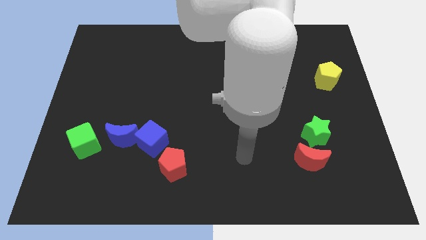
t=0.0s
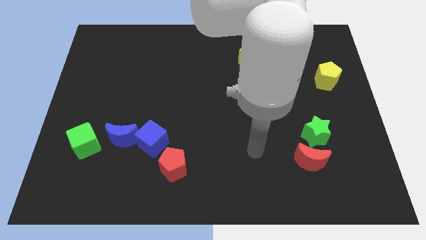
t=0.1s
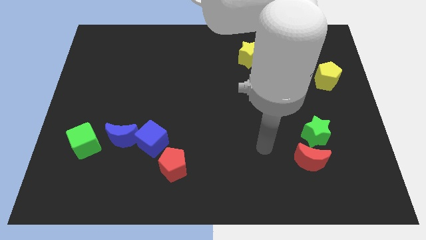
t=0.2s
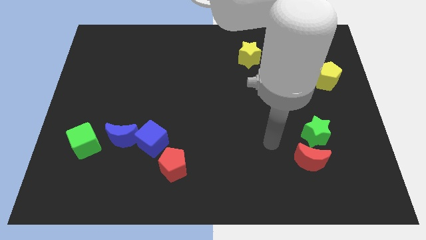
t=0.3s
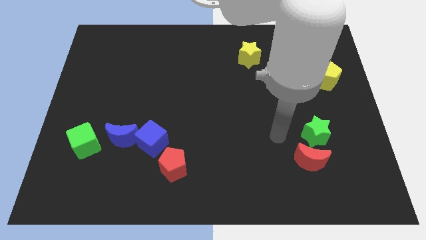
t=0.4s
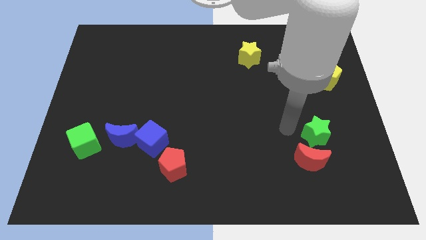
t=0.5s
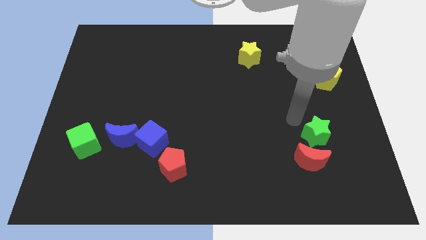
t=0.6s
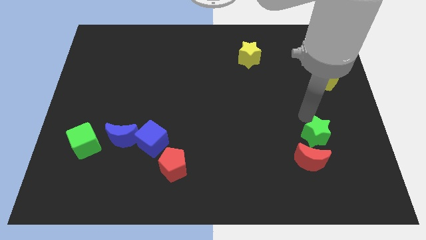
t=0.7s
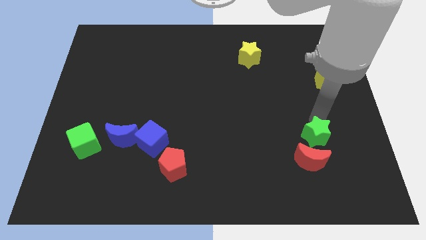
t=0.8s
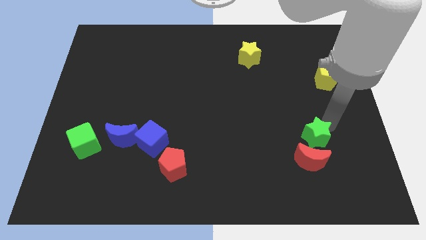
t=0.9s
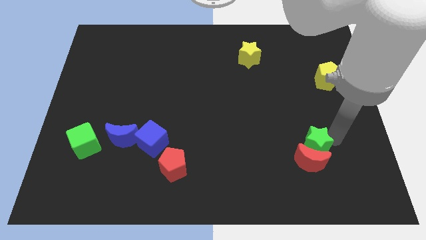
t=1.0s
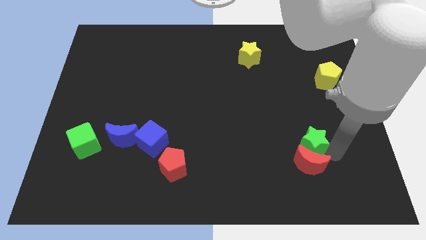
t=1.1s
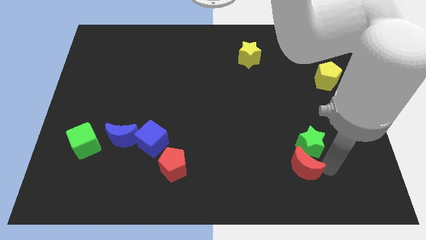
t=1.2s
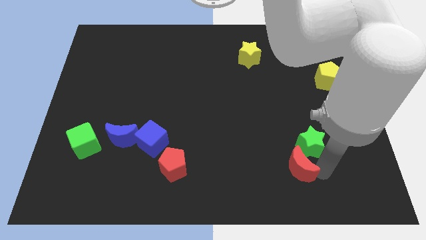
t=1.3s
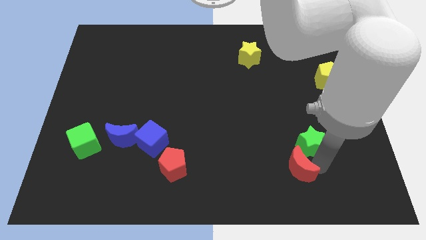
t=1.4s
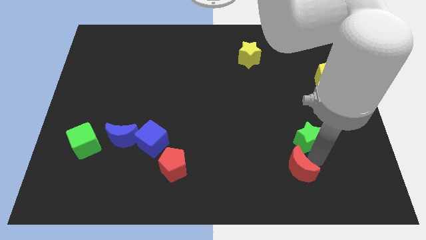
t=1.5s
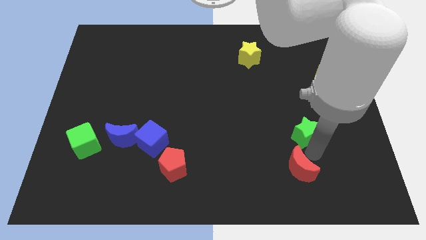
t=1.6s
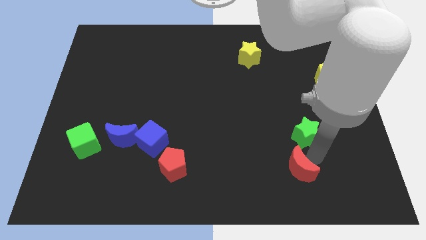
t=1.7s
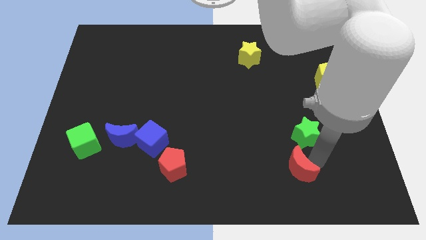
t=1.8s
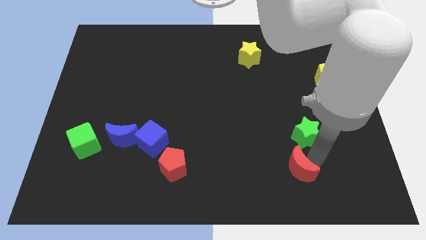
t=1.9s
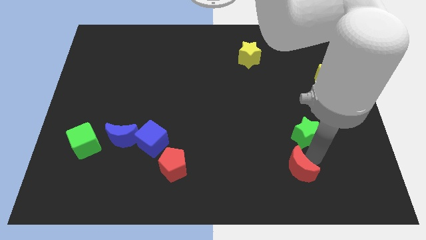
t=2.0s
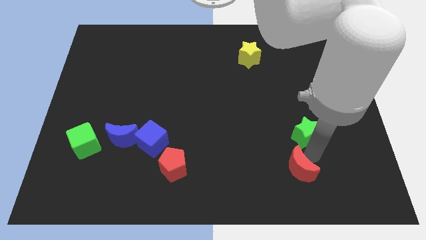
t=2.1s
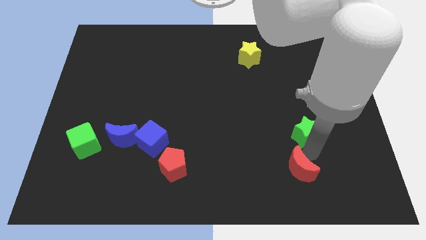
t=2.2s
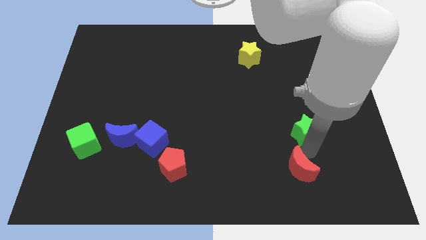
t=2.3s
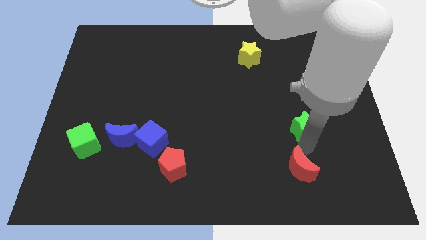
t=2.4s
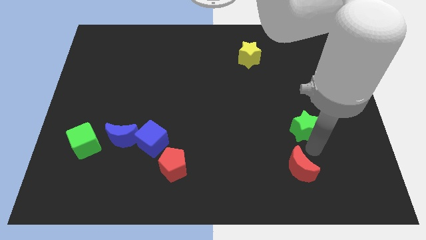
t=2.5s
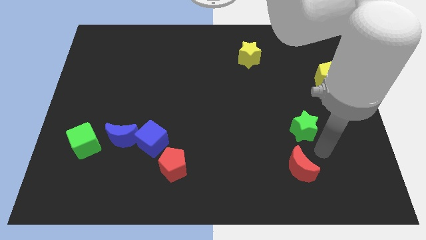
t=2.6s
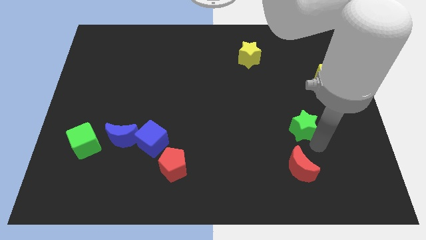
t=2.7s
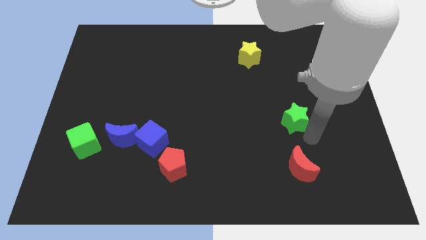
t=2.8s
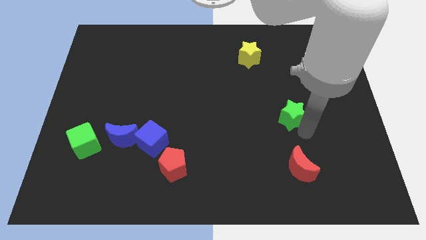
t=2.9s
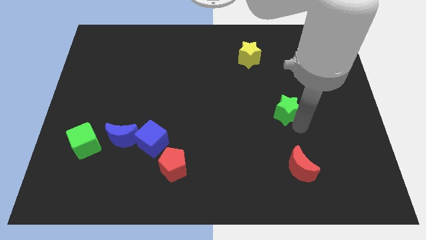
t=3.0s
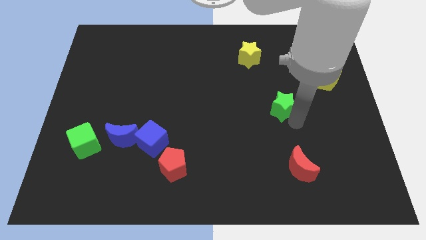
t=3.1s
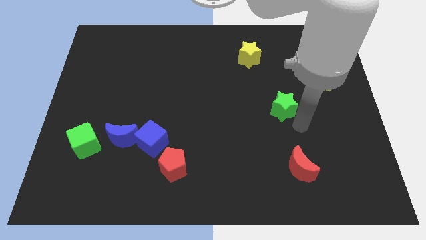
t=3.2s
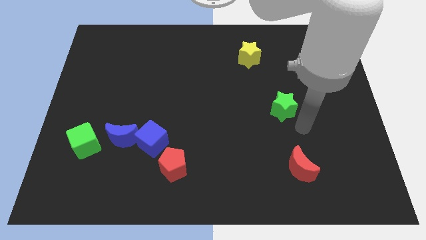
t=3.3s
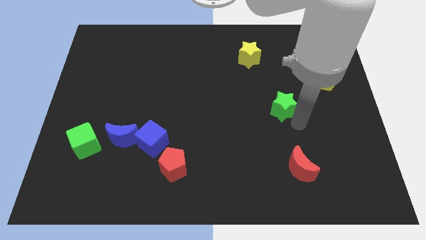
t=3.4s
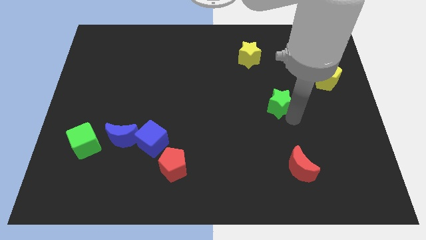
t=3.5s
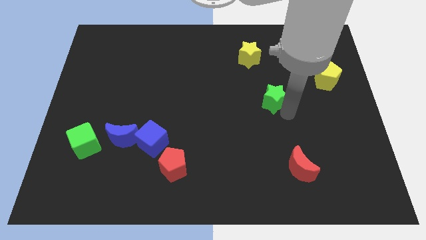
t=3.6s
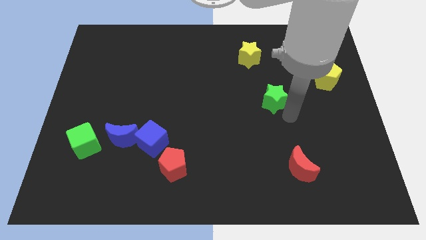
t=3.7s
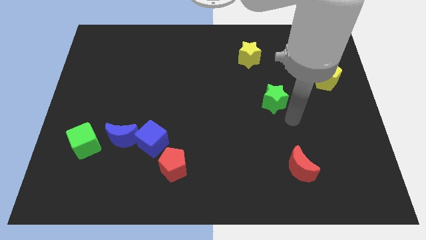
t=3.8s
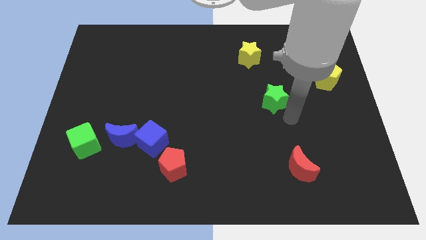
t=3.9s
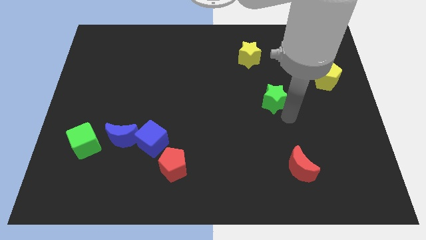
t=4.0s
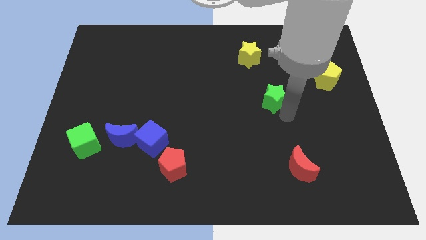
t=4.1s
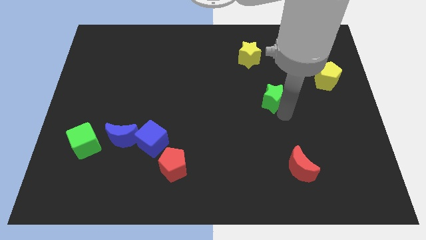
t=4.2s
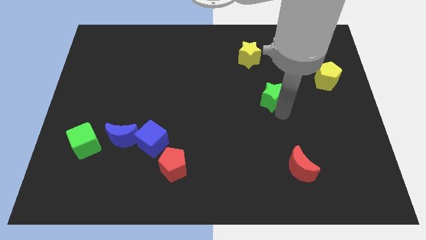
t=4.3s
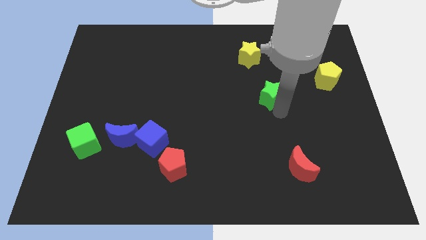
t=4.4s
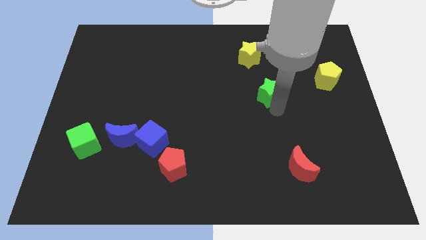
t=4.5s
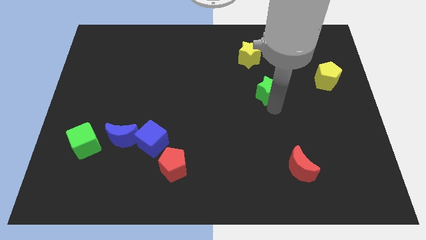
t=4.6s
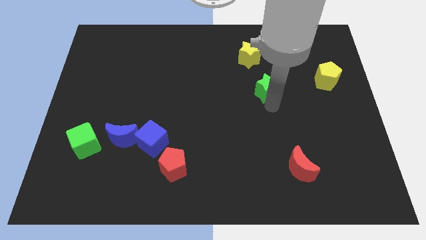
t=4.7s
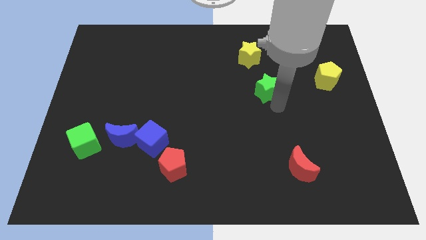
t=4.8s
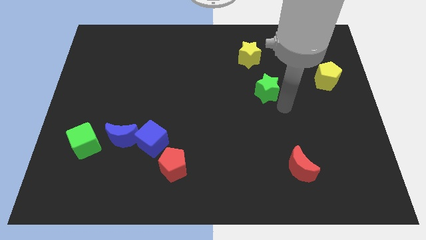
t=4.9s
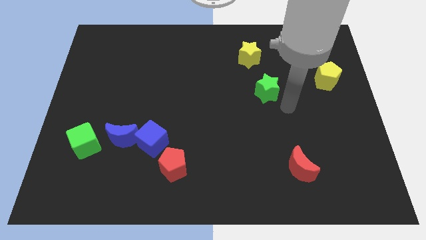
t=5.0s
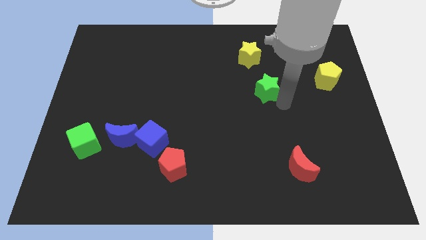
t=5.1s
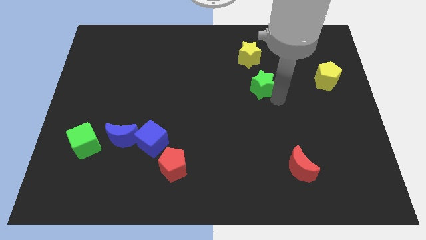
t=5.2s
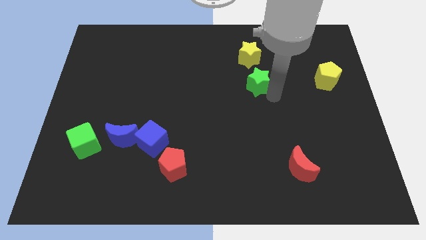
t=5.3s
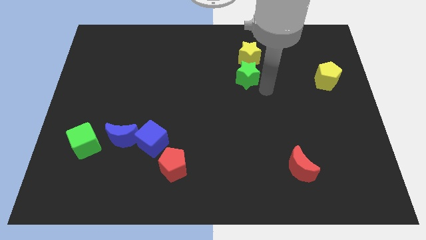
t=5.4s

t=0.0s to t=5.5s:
slide the green star up and to the left diagonally

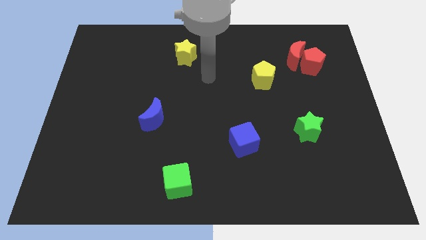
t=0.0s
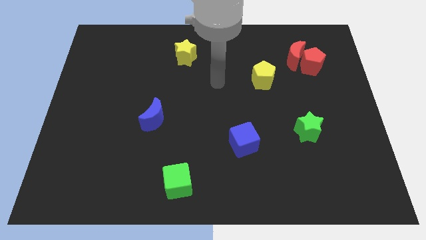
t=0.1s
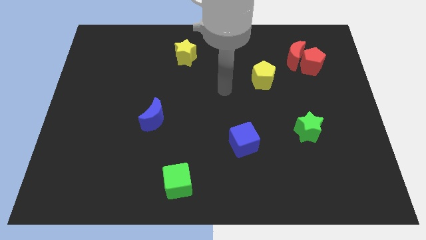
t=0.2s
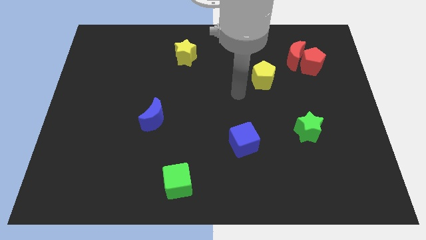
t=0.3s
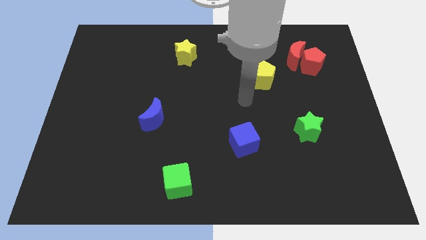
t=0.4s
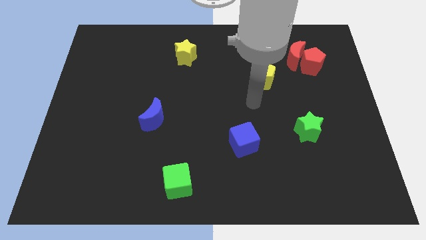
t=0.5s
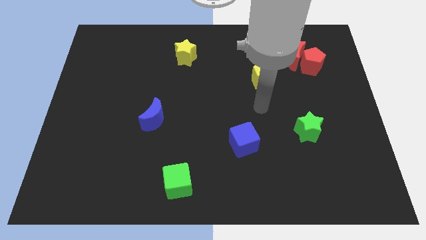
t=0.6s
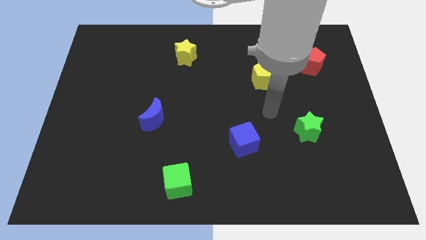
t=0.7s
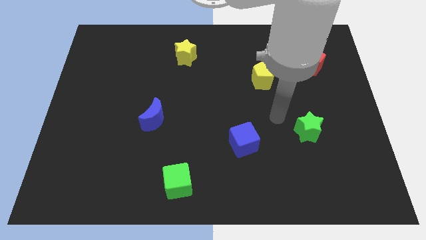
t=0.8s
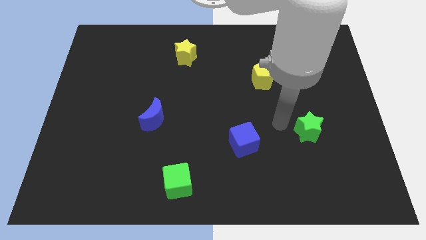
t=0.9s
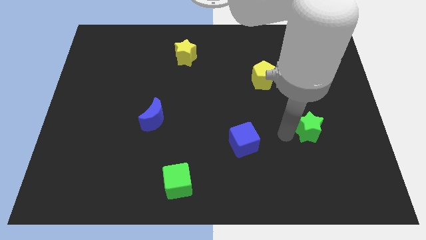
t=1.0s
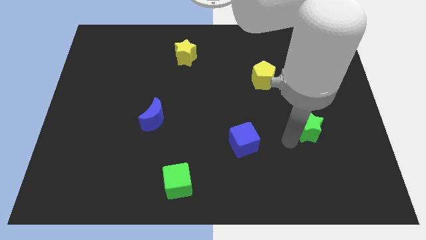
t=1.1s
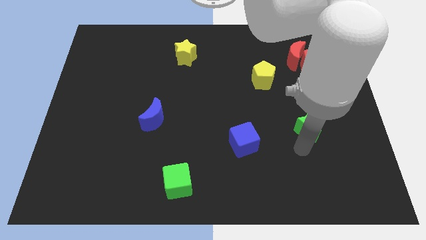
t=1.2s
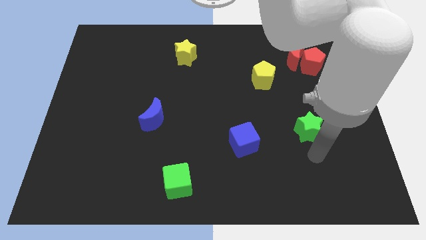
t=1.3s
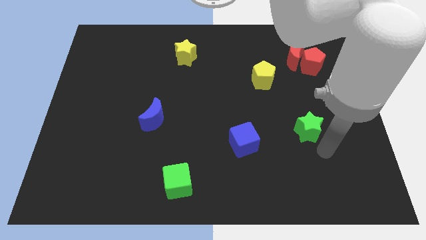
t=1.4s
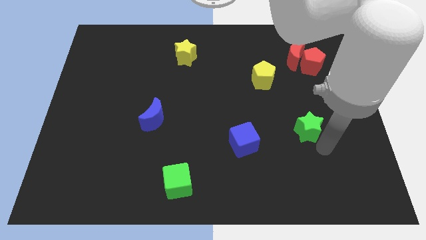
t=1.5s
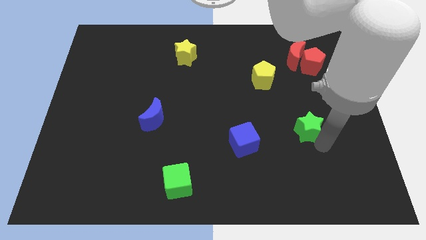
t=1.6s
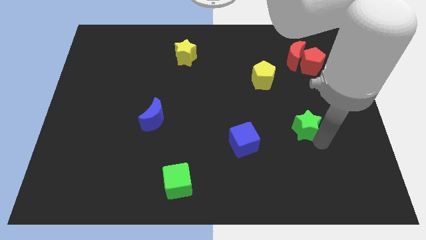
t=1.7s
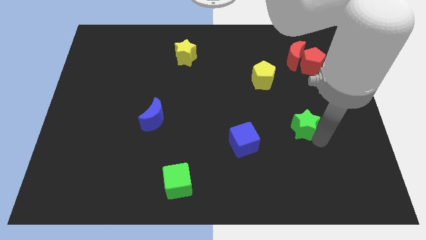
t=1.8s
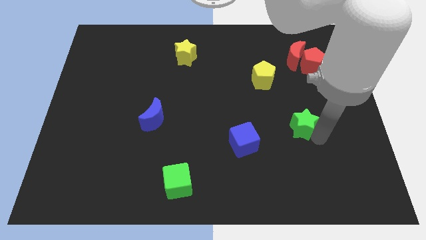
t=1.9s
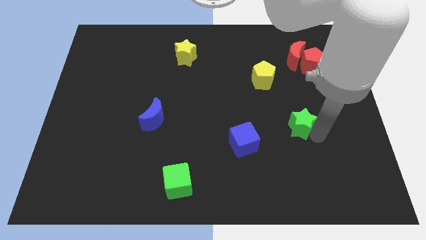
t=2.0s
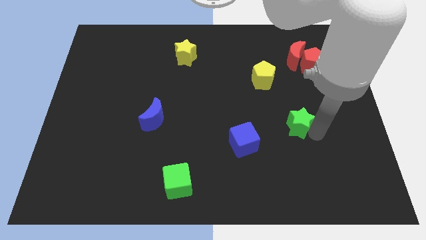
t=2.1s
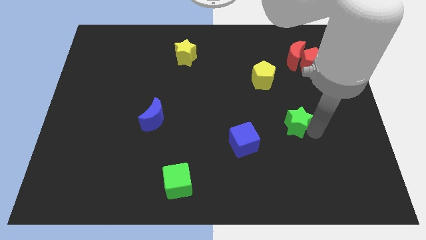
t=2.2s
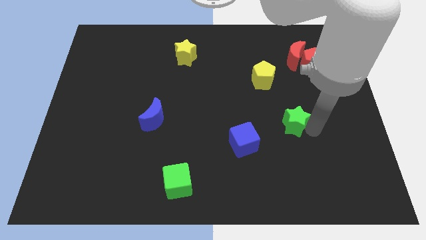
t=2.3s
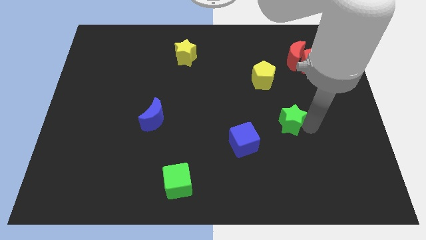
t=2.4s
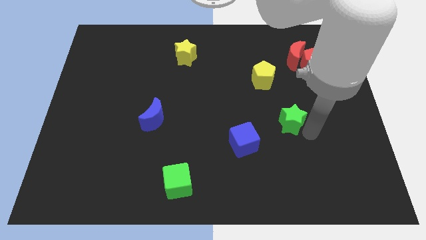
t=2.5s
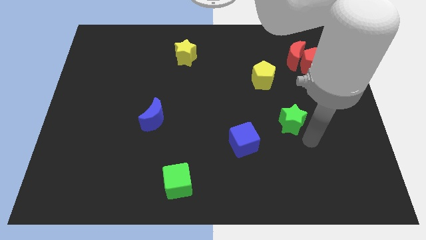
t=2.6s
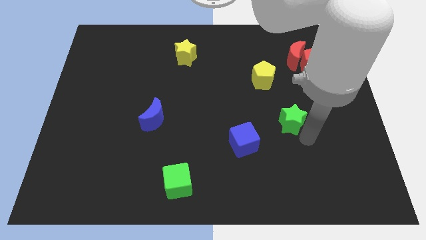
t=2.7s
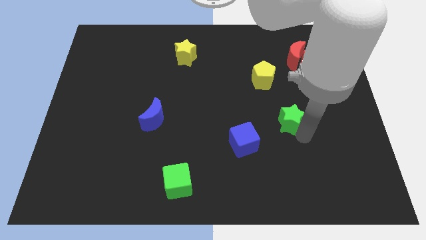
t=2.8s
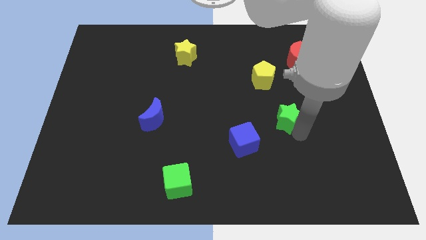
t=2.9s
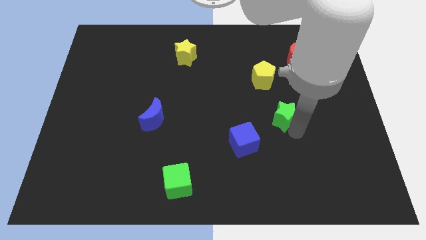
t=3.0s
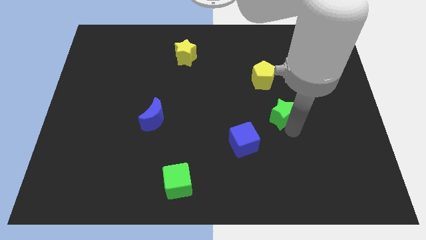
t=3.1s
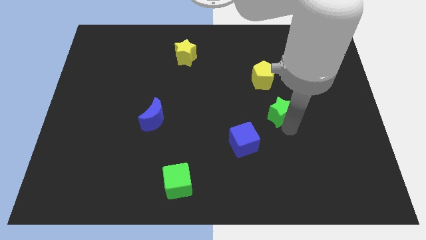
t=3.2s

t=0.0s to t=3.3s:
slightly move the green star up and then to the left
